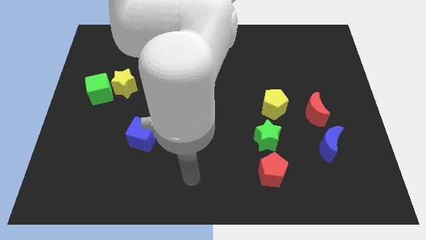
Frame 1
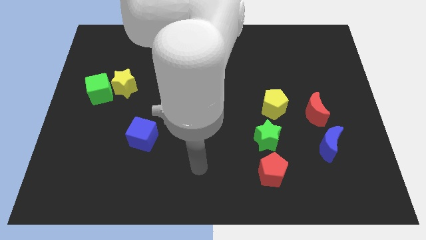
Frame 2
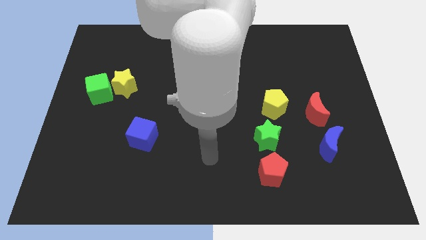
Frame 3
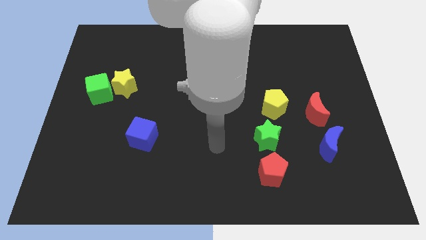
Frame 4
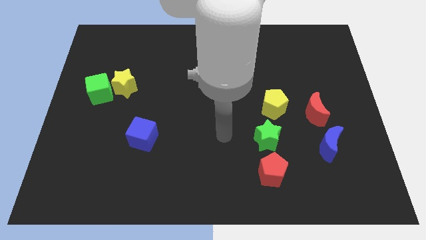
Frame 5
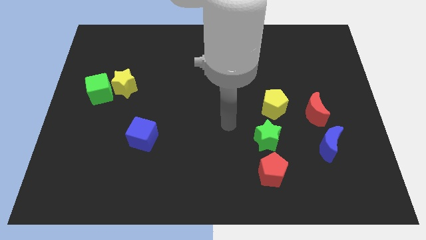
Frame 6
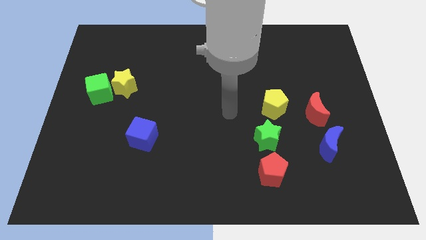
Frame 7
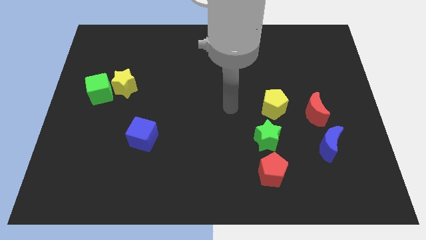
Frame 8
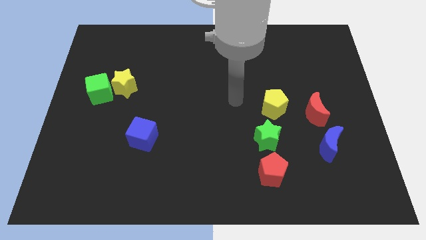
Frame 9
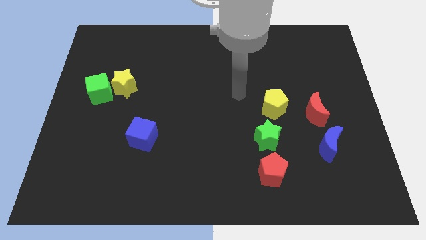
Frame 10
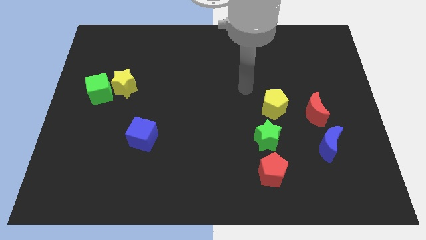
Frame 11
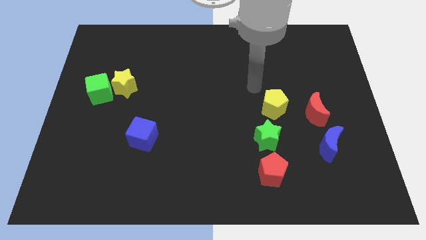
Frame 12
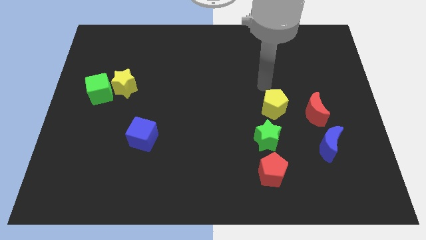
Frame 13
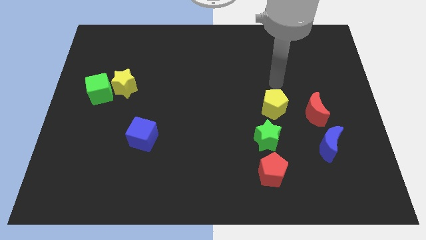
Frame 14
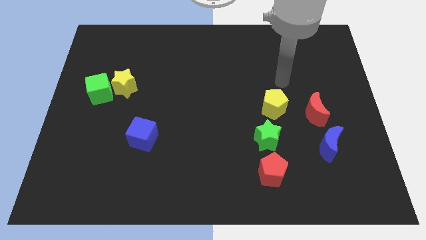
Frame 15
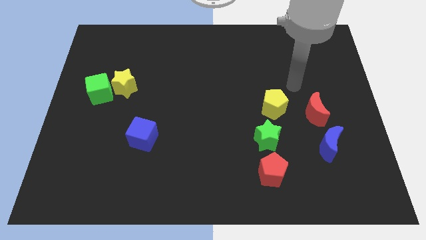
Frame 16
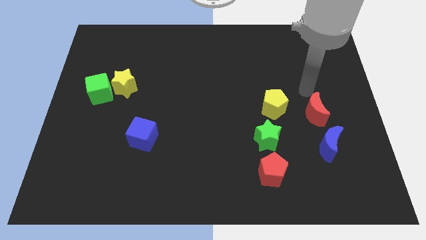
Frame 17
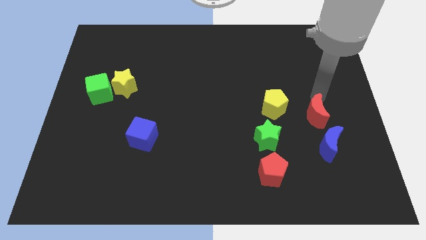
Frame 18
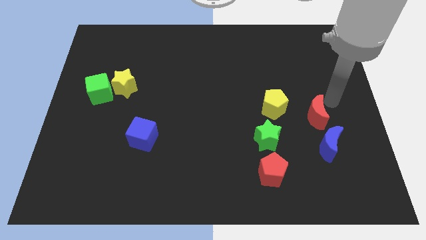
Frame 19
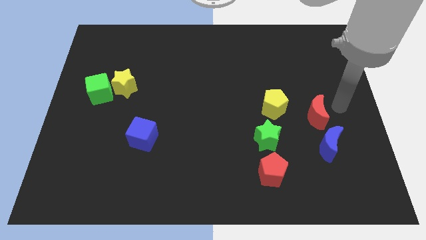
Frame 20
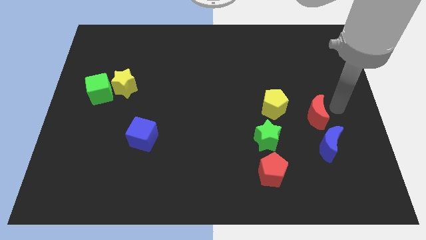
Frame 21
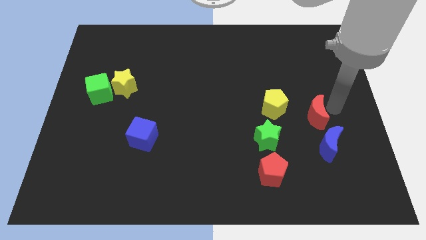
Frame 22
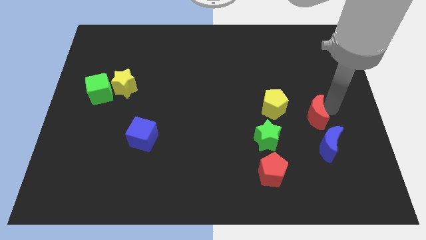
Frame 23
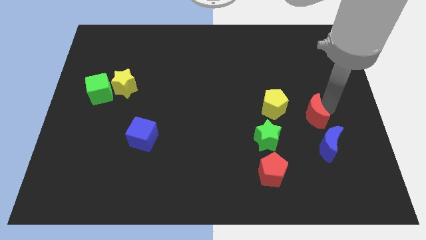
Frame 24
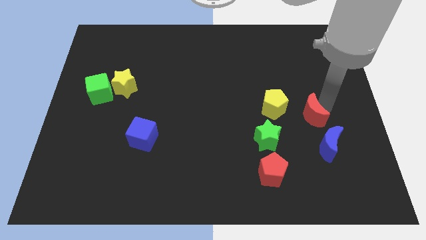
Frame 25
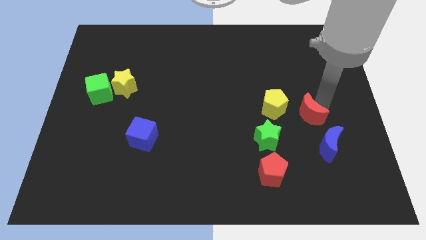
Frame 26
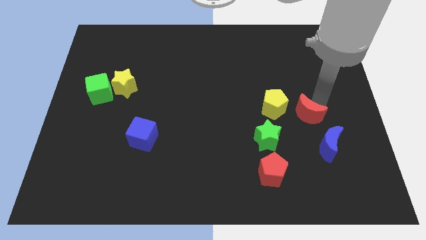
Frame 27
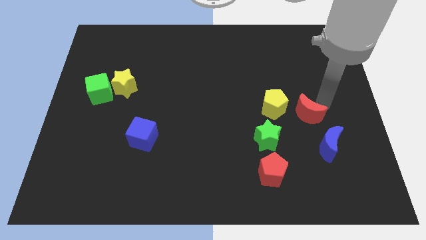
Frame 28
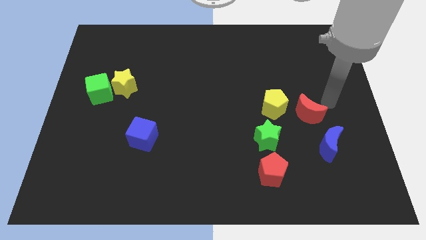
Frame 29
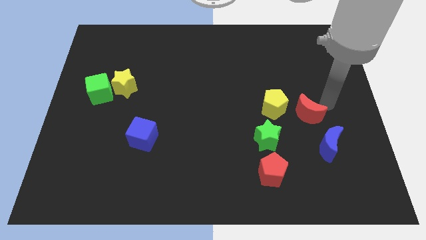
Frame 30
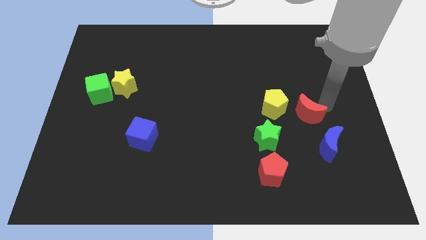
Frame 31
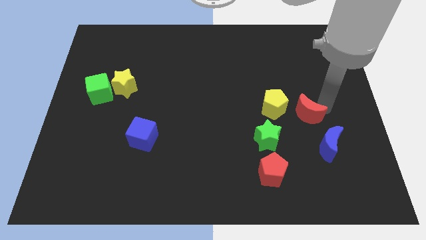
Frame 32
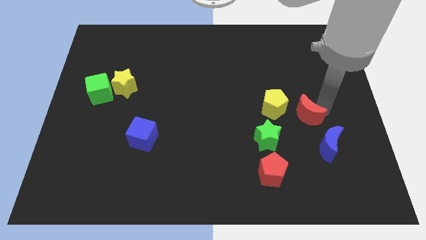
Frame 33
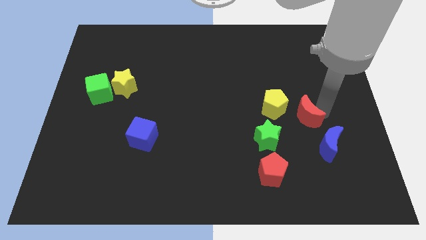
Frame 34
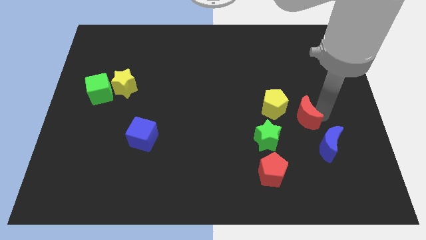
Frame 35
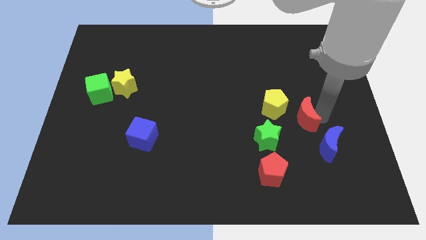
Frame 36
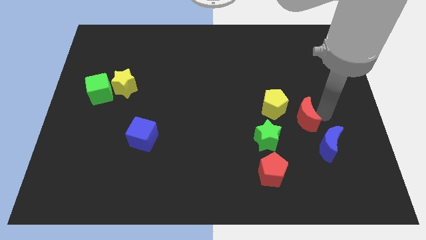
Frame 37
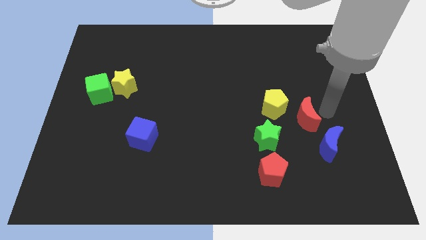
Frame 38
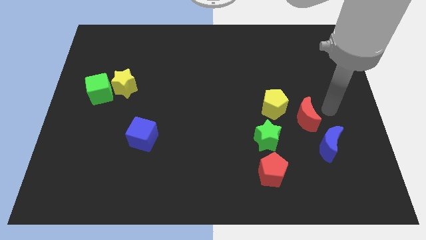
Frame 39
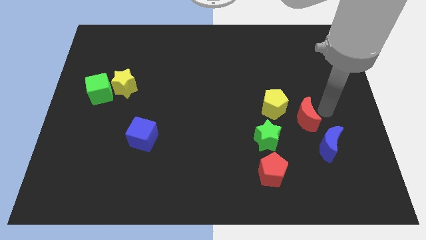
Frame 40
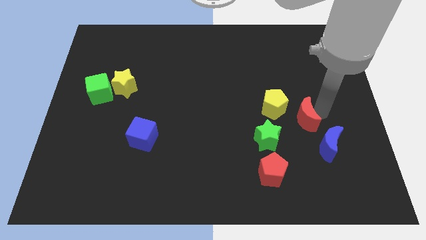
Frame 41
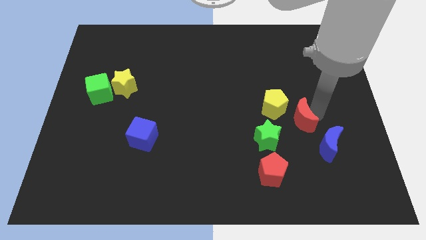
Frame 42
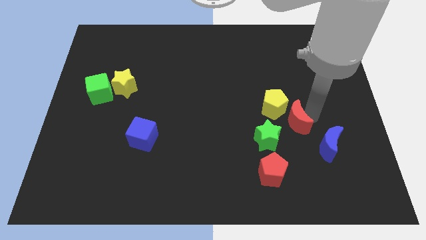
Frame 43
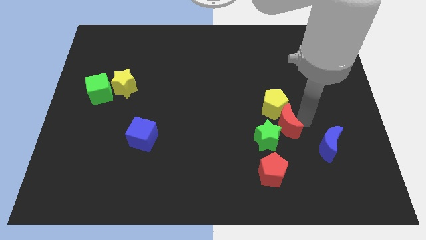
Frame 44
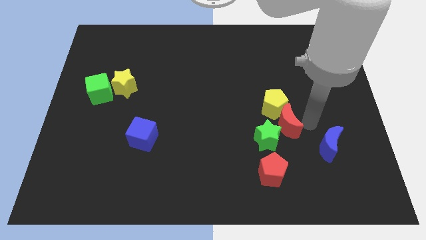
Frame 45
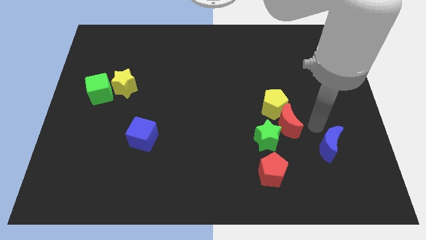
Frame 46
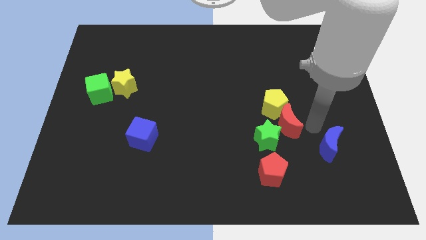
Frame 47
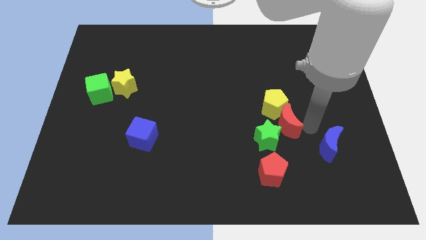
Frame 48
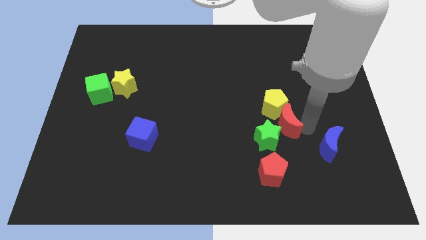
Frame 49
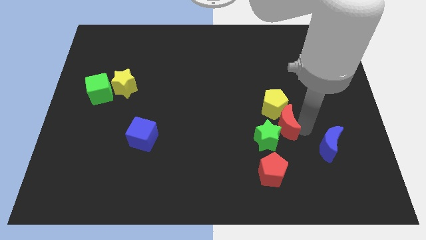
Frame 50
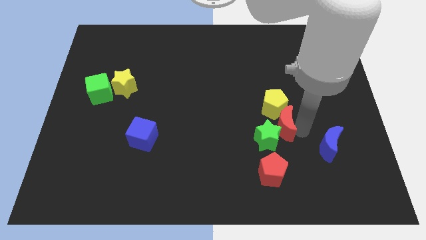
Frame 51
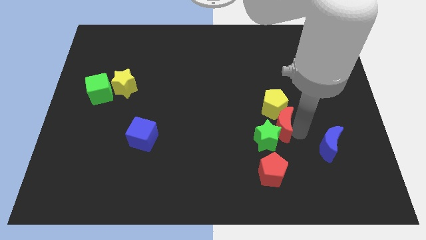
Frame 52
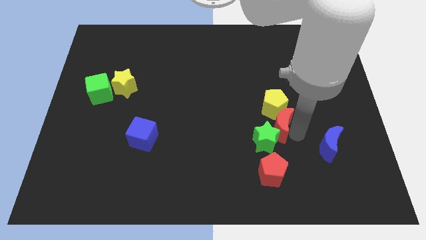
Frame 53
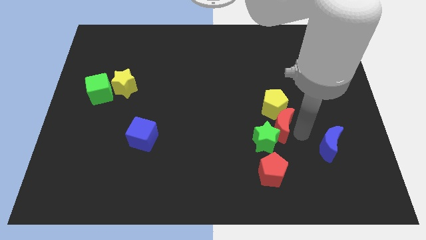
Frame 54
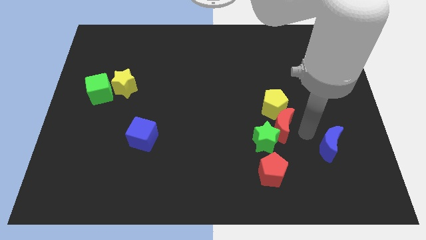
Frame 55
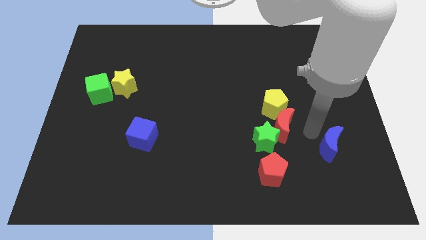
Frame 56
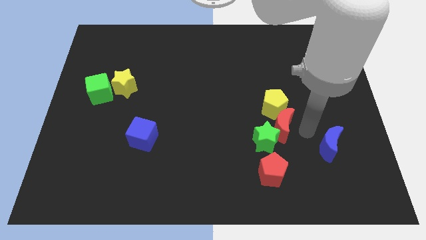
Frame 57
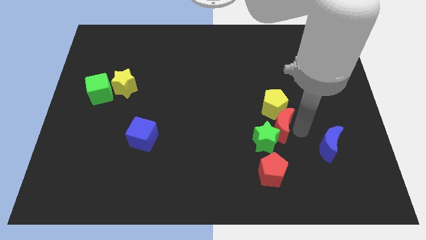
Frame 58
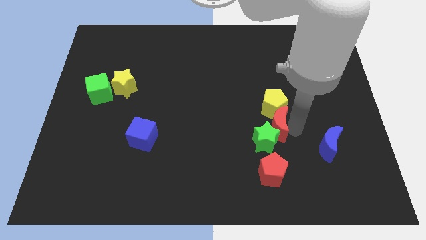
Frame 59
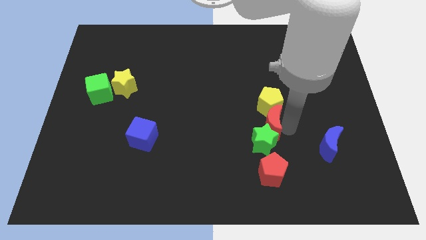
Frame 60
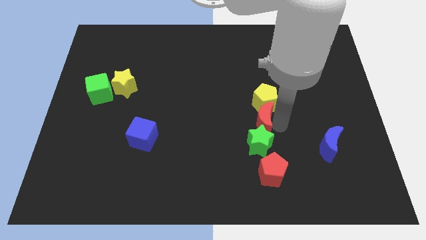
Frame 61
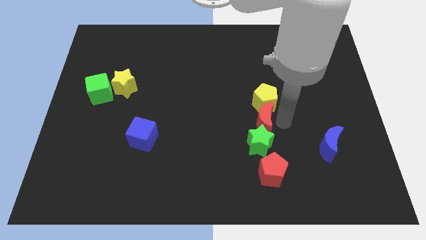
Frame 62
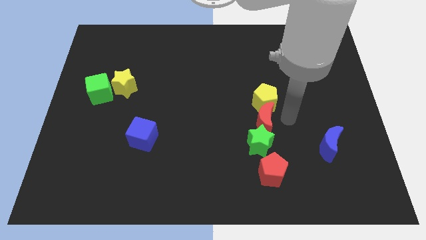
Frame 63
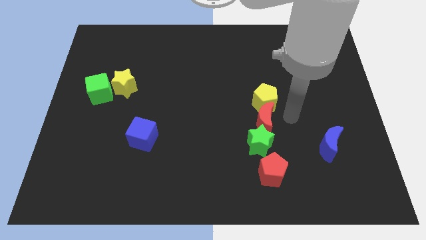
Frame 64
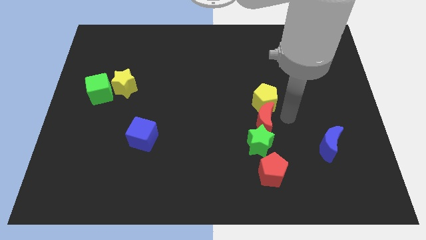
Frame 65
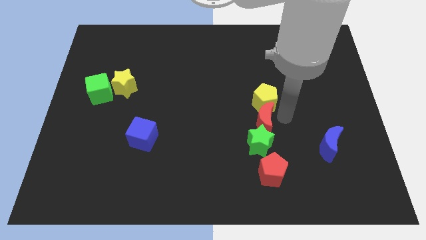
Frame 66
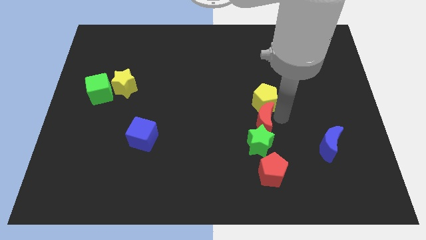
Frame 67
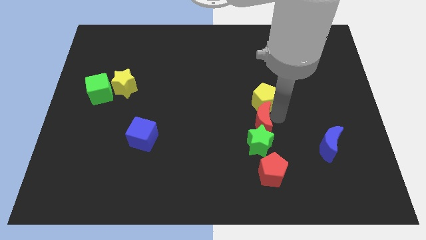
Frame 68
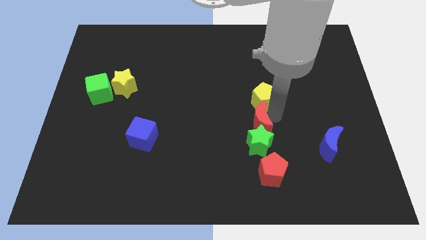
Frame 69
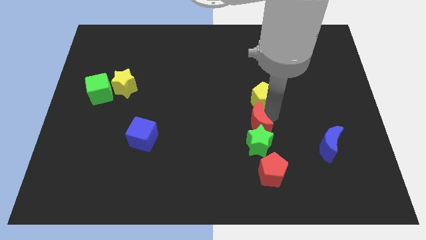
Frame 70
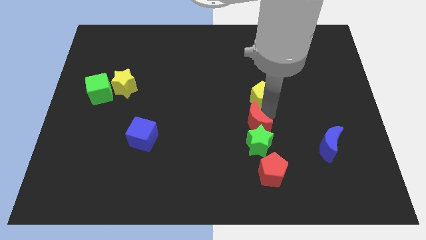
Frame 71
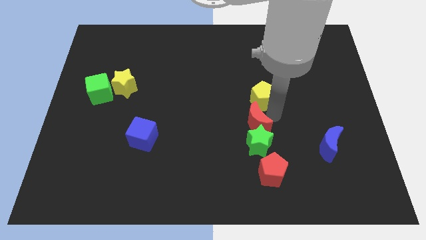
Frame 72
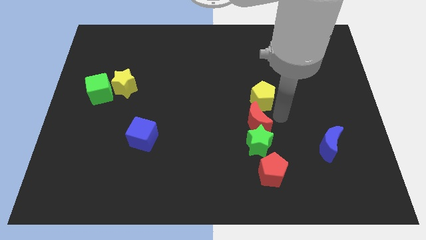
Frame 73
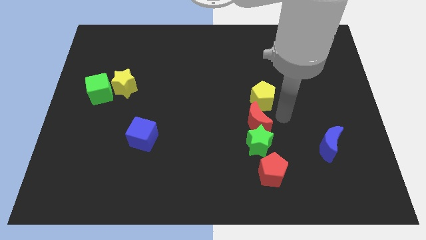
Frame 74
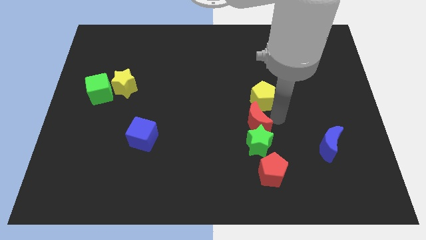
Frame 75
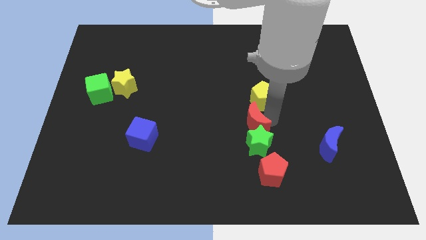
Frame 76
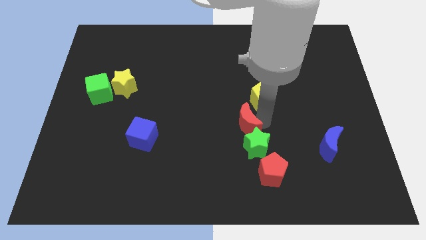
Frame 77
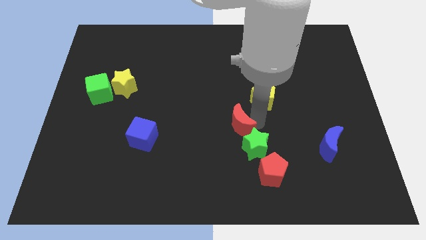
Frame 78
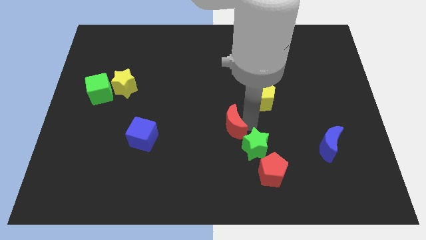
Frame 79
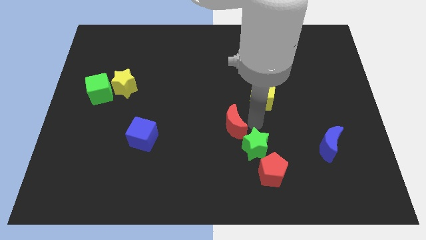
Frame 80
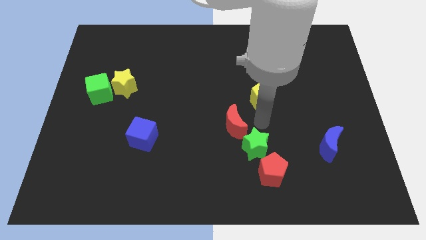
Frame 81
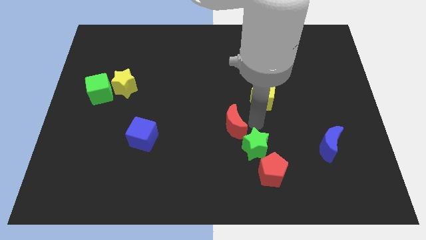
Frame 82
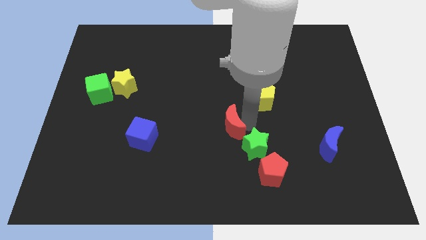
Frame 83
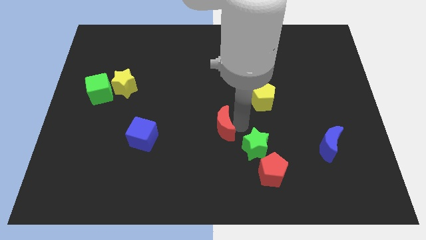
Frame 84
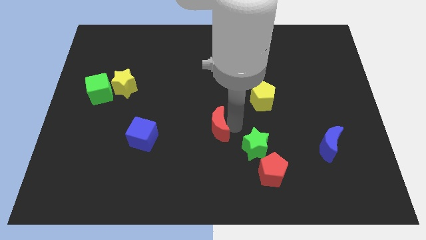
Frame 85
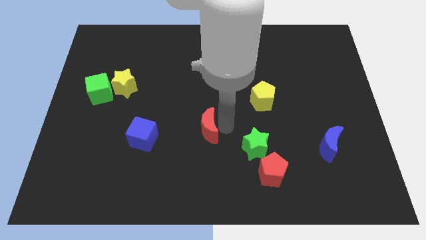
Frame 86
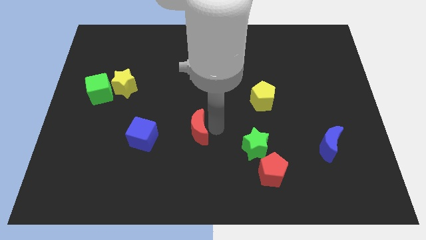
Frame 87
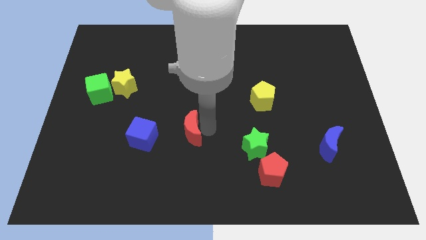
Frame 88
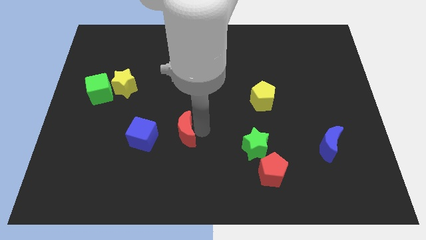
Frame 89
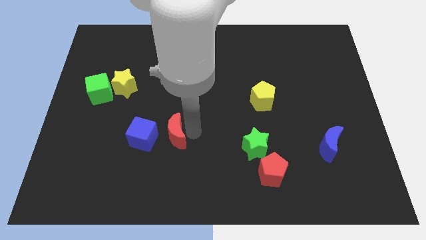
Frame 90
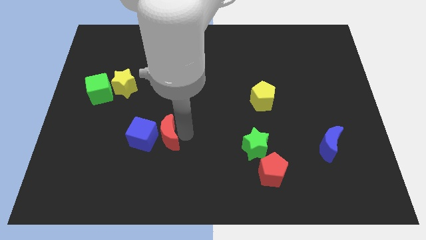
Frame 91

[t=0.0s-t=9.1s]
push the red moon towards the blue cube
